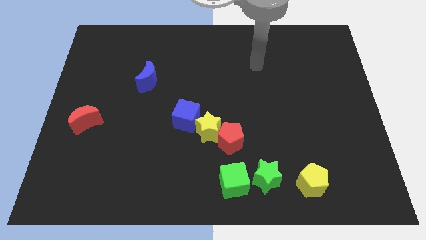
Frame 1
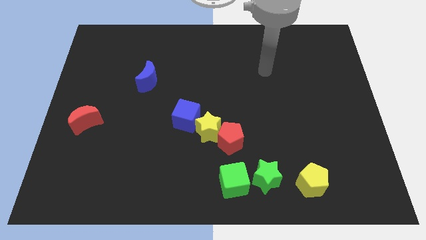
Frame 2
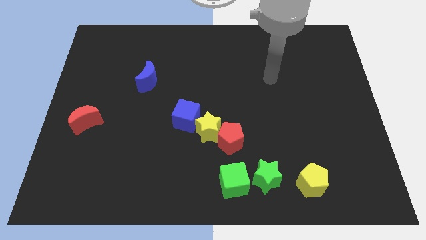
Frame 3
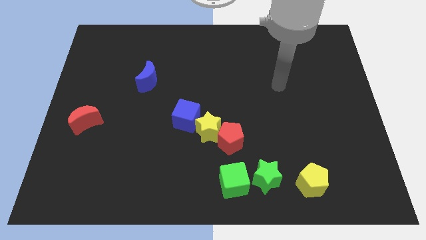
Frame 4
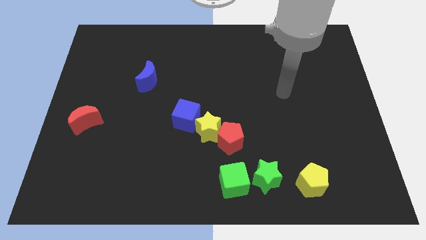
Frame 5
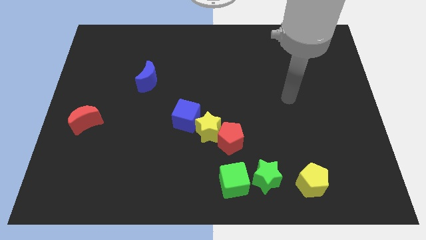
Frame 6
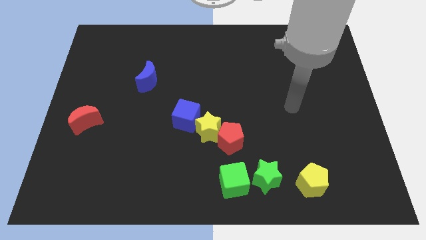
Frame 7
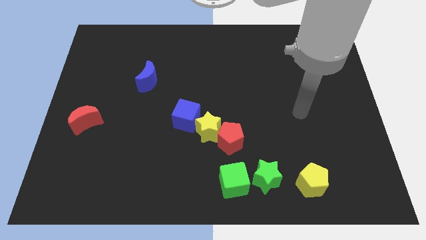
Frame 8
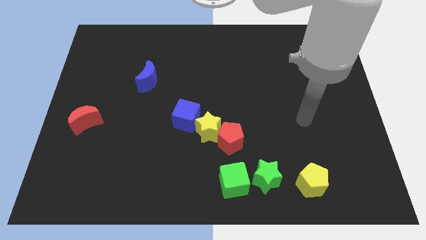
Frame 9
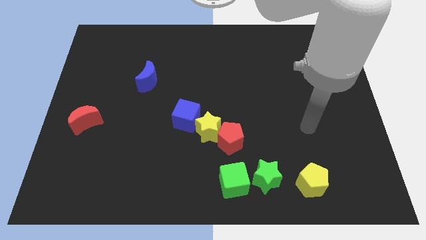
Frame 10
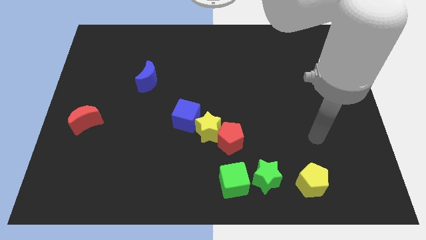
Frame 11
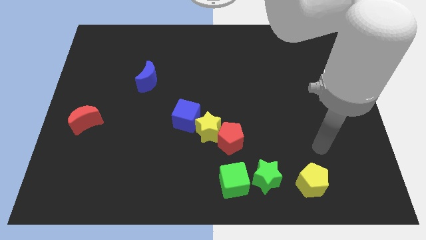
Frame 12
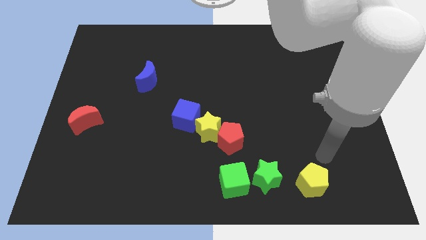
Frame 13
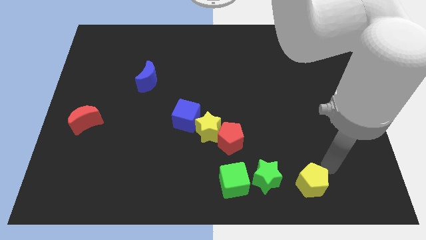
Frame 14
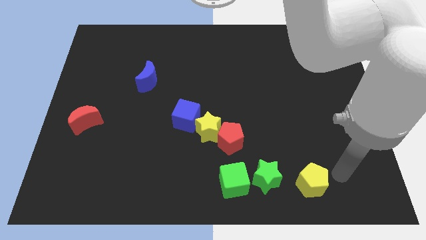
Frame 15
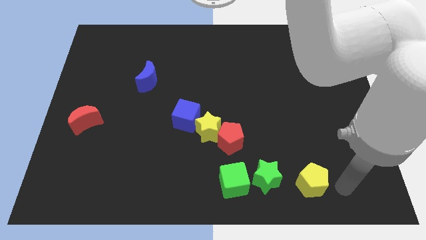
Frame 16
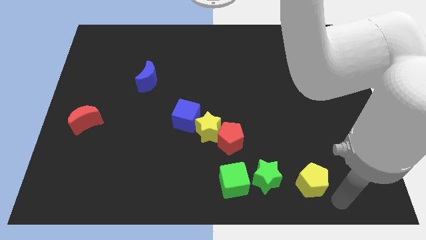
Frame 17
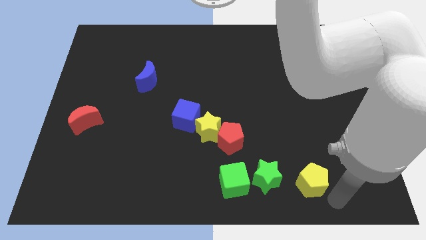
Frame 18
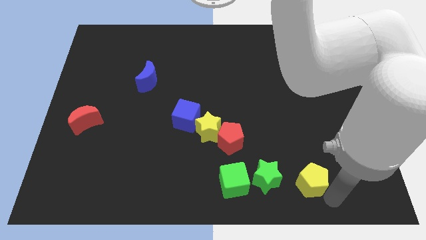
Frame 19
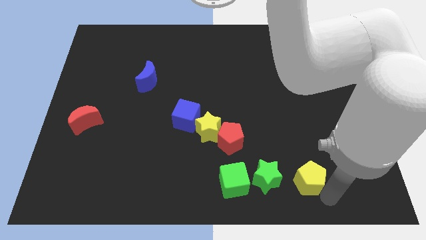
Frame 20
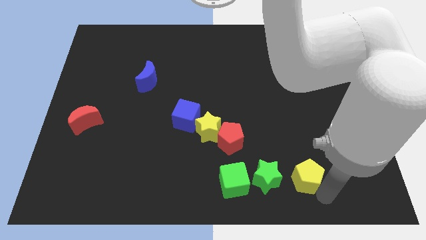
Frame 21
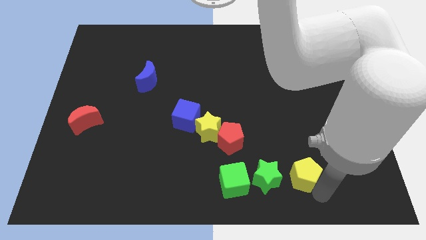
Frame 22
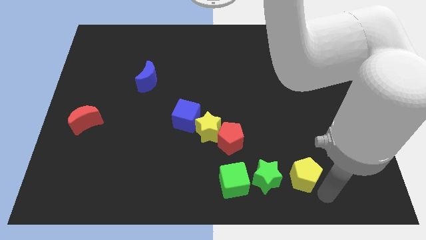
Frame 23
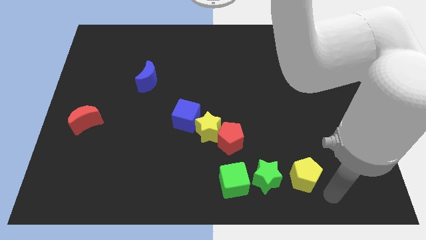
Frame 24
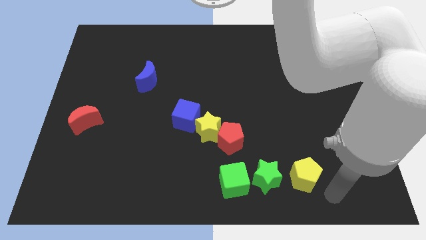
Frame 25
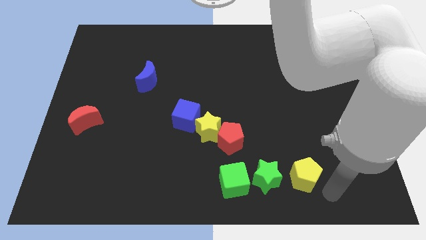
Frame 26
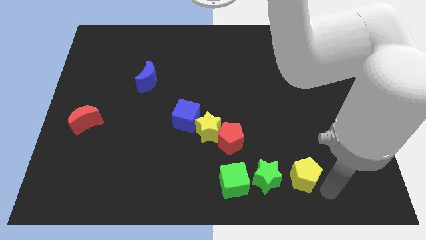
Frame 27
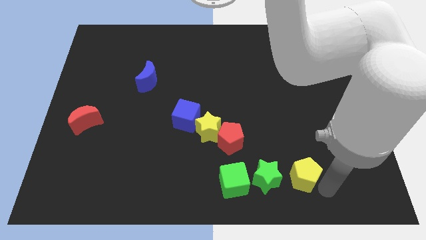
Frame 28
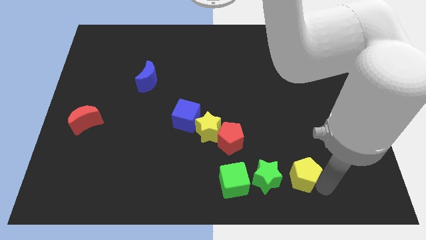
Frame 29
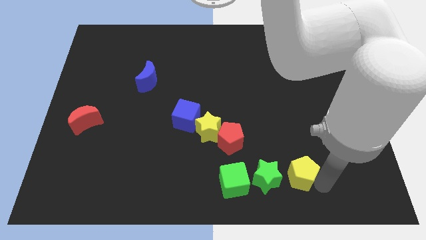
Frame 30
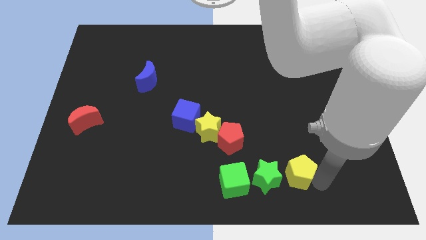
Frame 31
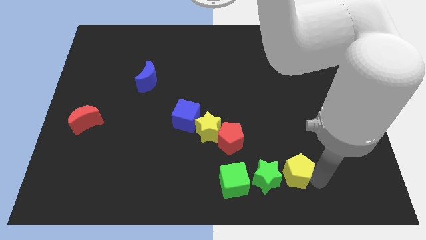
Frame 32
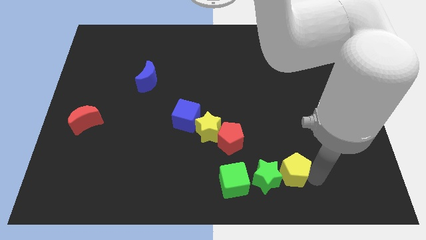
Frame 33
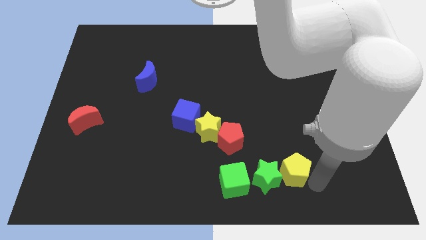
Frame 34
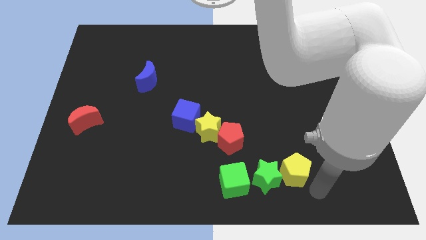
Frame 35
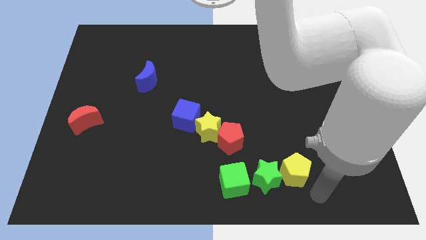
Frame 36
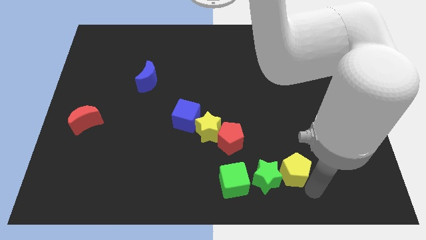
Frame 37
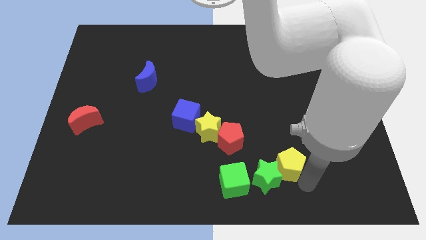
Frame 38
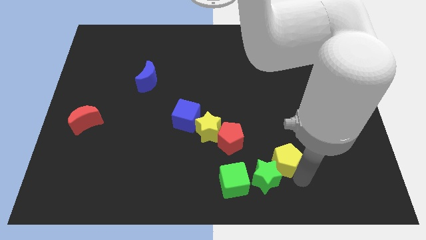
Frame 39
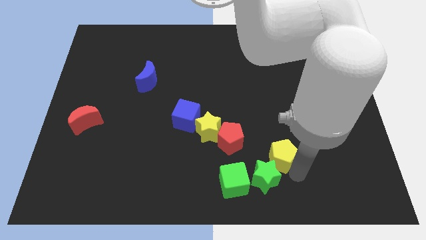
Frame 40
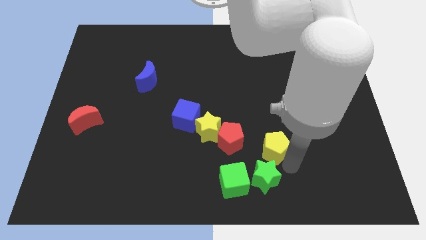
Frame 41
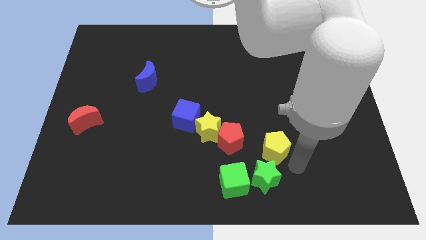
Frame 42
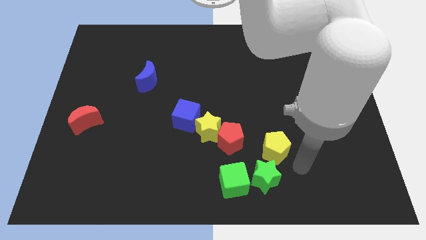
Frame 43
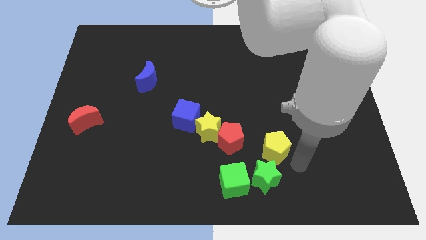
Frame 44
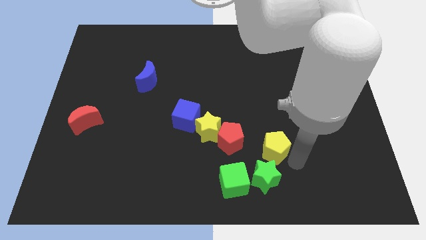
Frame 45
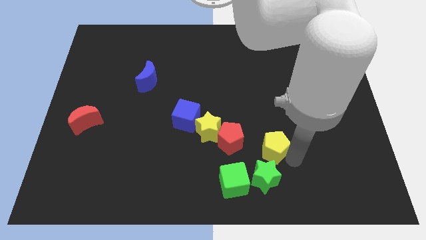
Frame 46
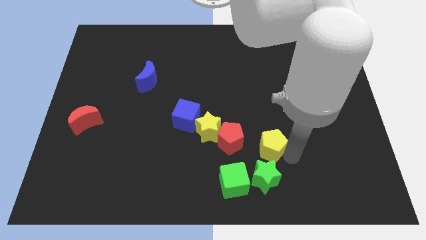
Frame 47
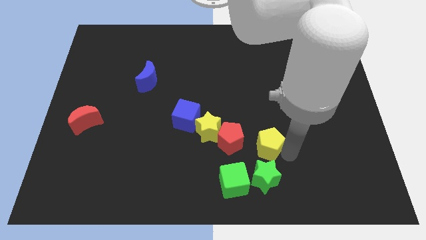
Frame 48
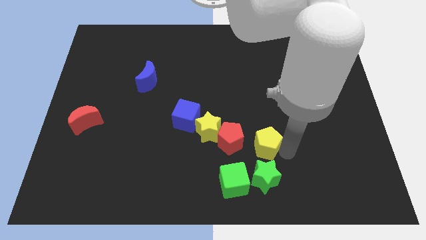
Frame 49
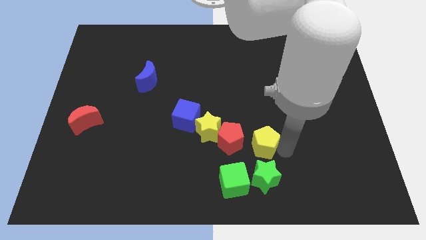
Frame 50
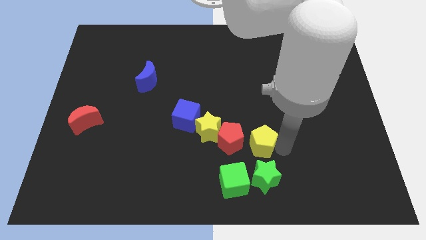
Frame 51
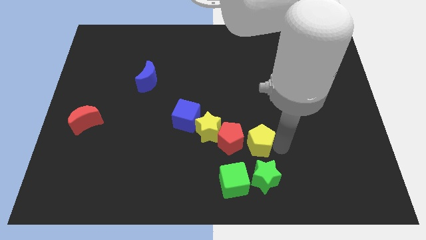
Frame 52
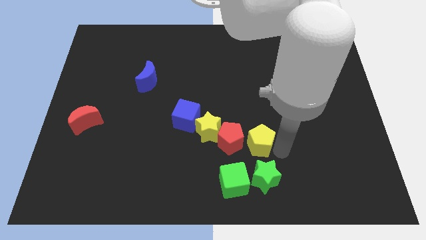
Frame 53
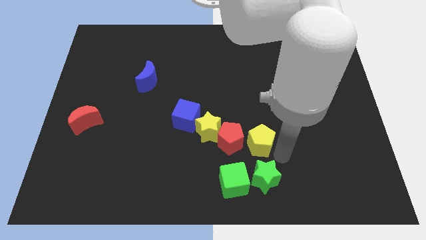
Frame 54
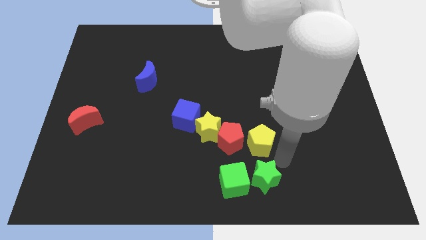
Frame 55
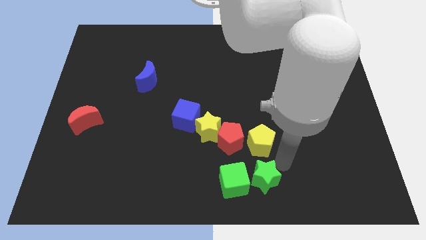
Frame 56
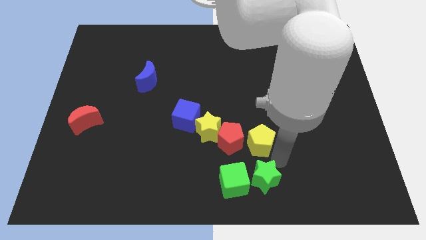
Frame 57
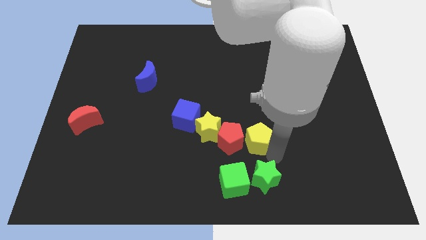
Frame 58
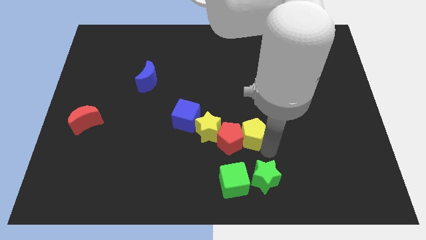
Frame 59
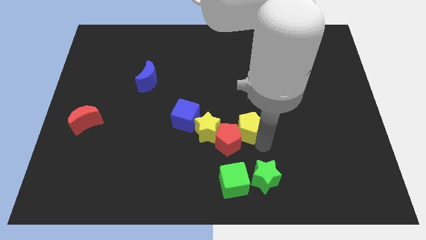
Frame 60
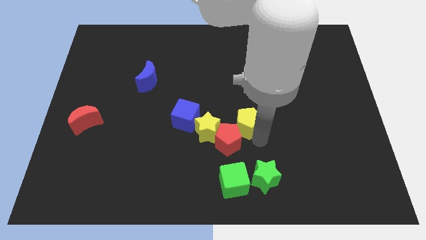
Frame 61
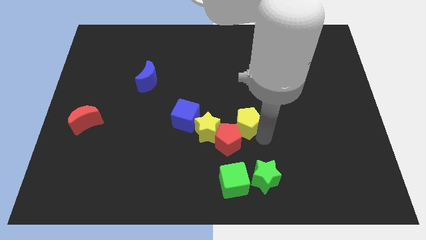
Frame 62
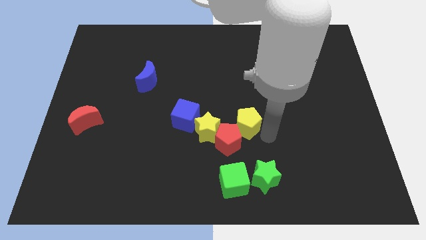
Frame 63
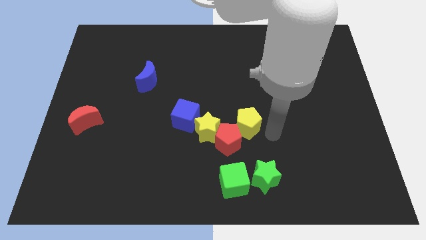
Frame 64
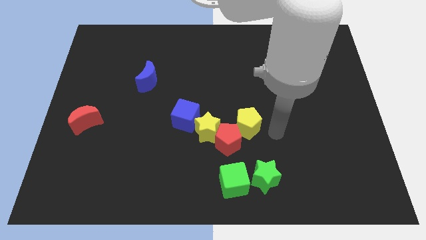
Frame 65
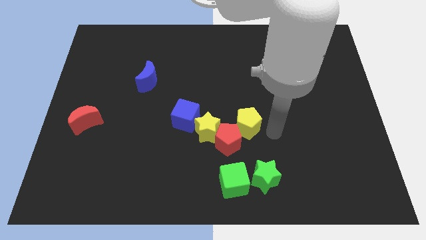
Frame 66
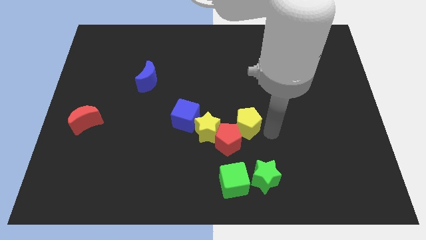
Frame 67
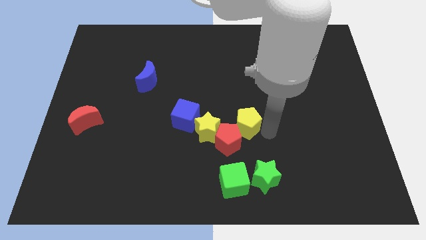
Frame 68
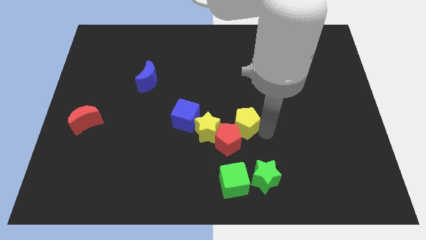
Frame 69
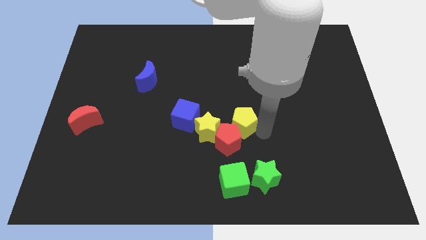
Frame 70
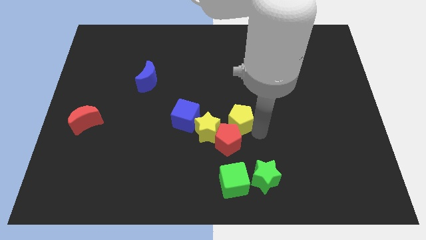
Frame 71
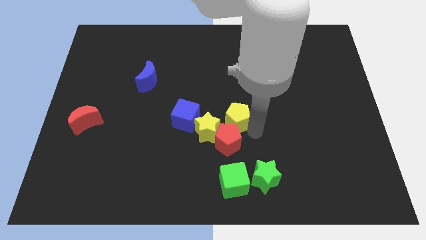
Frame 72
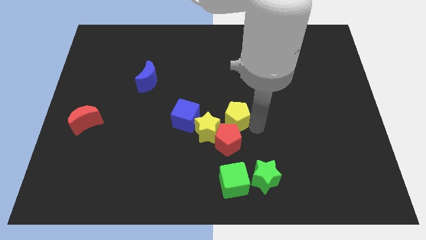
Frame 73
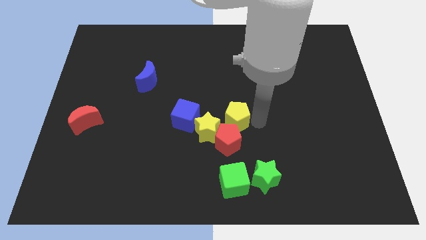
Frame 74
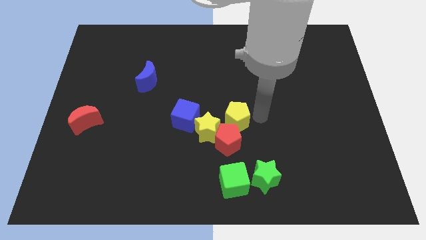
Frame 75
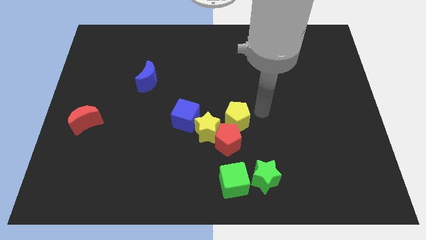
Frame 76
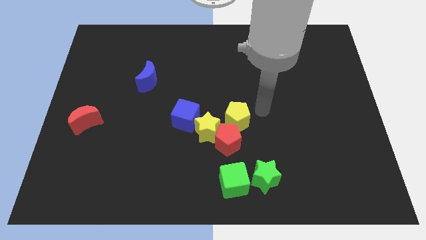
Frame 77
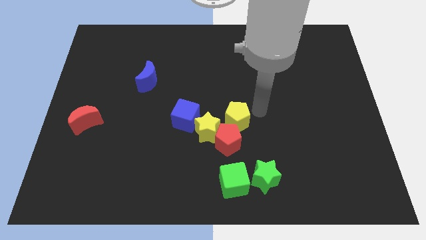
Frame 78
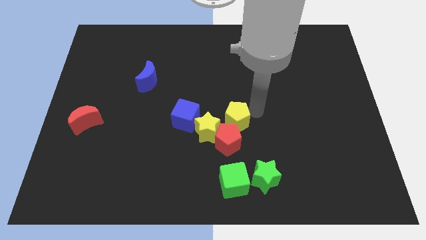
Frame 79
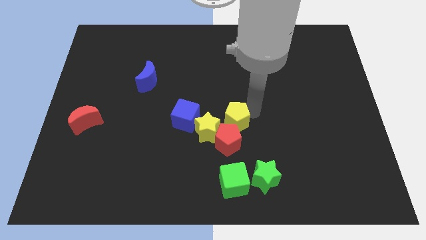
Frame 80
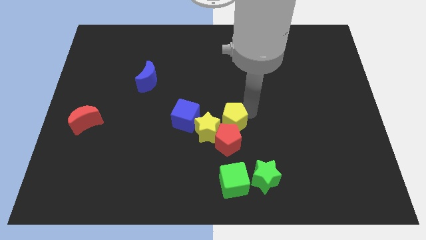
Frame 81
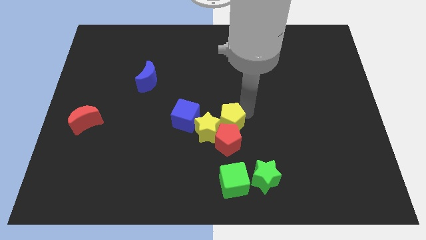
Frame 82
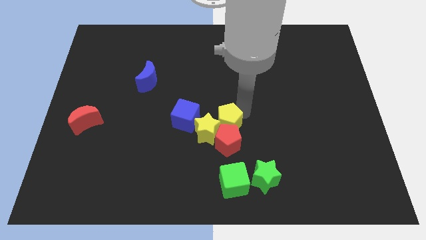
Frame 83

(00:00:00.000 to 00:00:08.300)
slide the yellow pentagon close to the yellow star
